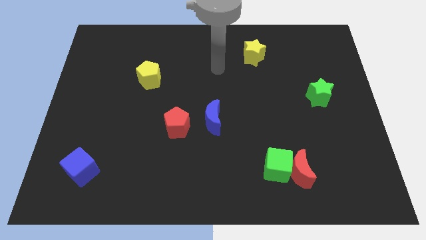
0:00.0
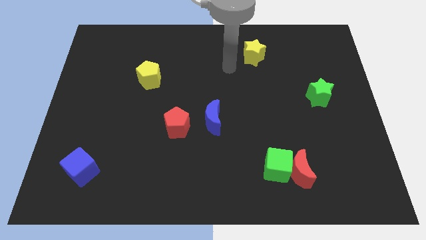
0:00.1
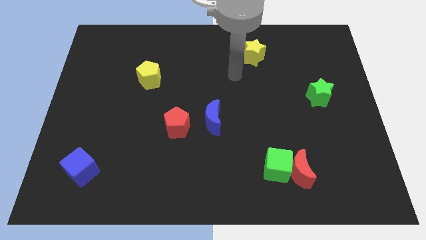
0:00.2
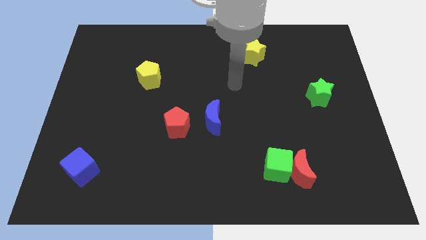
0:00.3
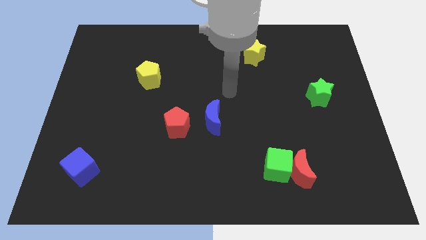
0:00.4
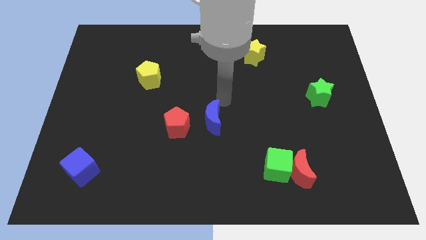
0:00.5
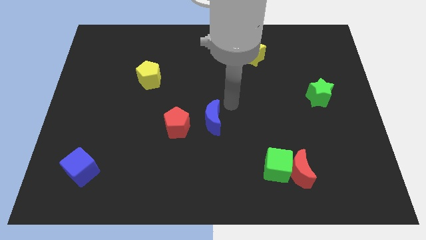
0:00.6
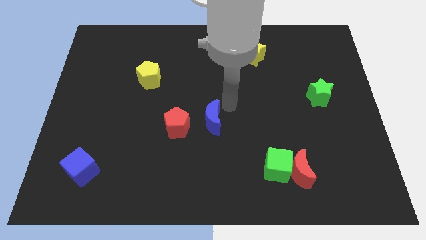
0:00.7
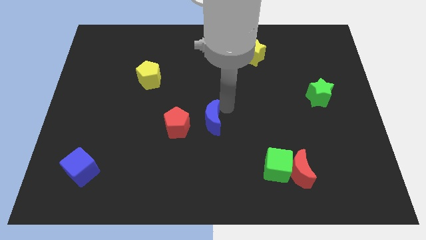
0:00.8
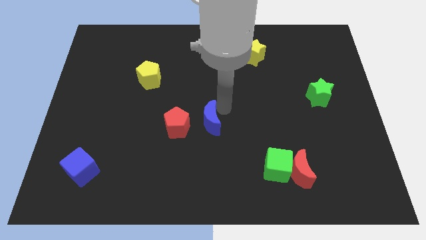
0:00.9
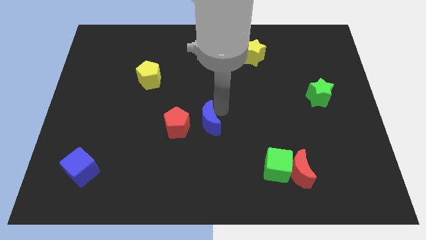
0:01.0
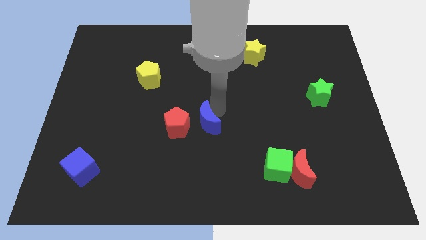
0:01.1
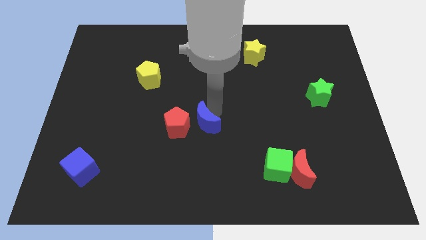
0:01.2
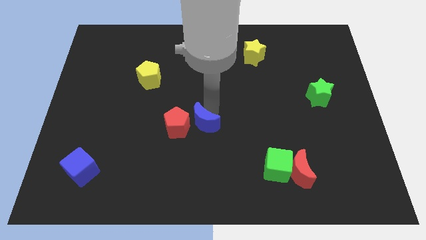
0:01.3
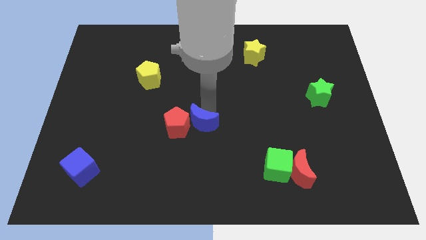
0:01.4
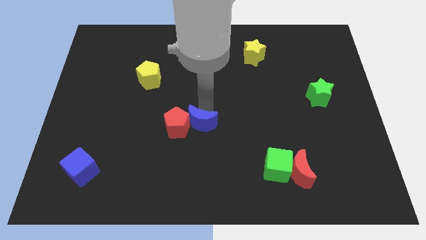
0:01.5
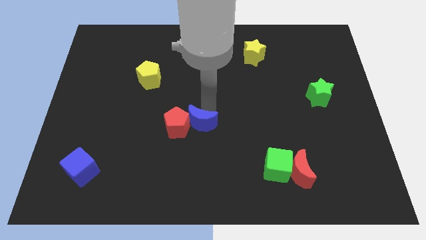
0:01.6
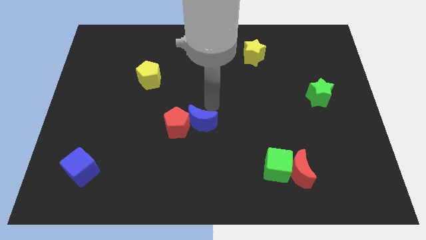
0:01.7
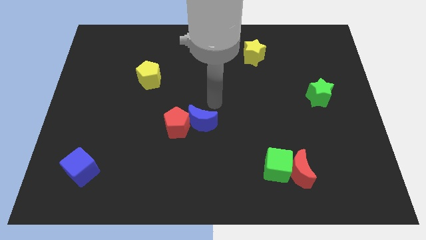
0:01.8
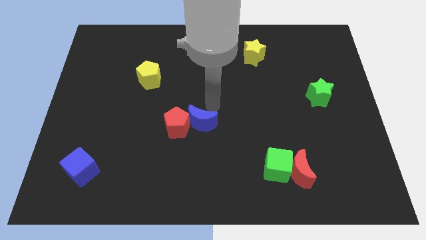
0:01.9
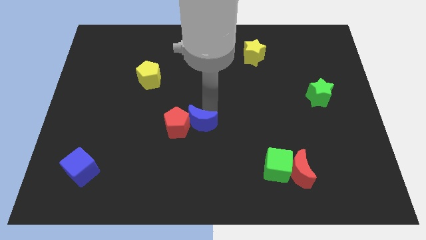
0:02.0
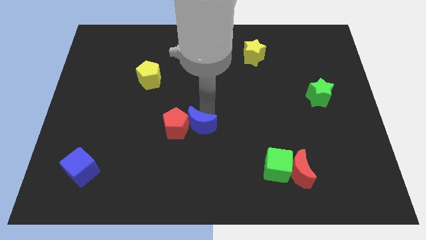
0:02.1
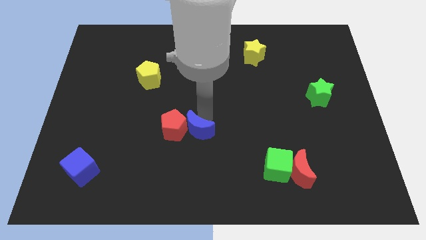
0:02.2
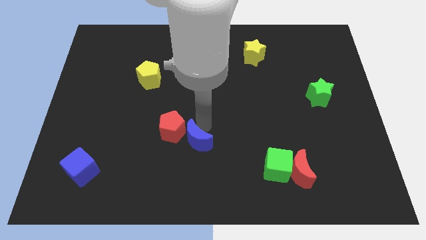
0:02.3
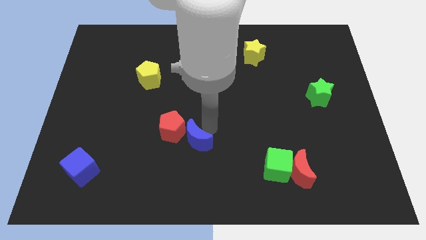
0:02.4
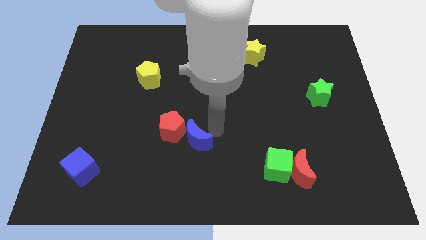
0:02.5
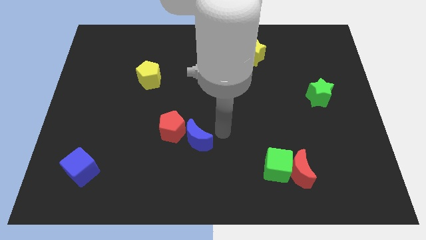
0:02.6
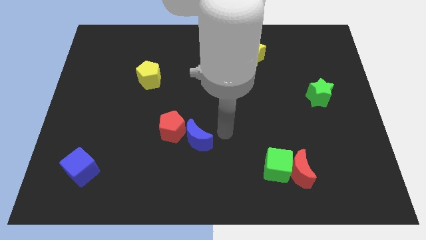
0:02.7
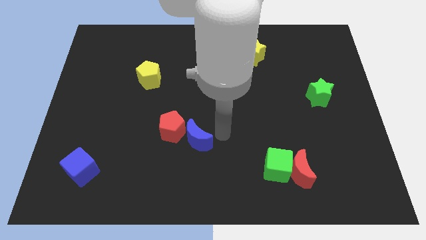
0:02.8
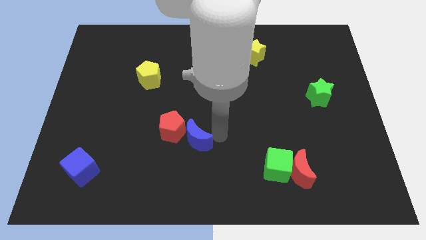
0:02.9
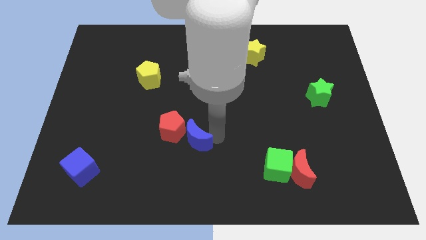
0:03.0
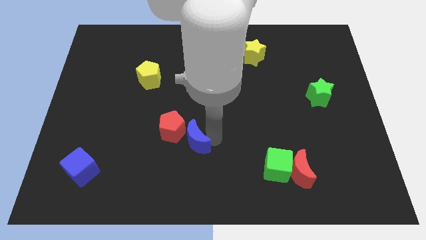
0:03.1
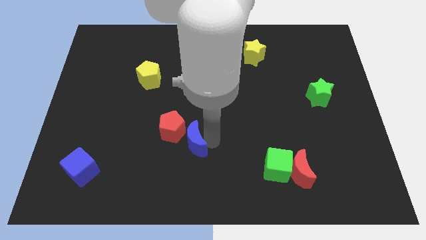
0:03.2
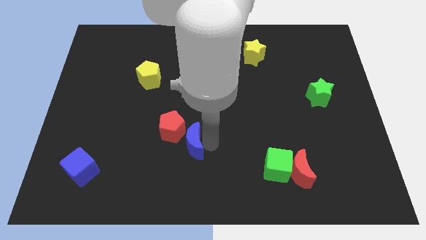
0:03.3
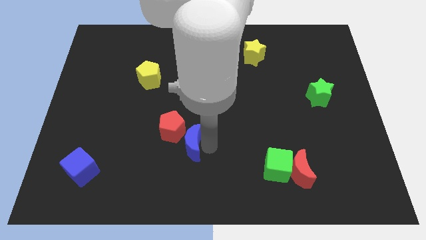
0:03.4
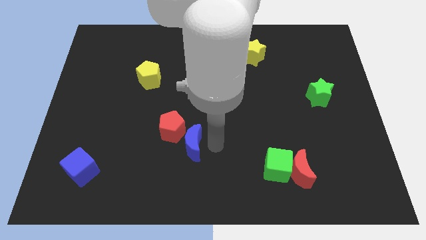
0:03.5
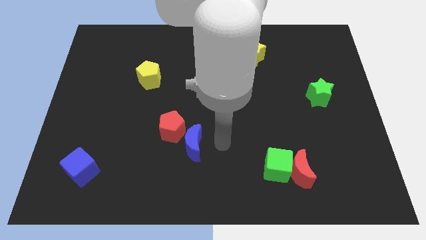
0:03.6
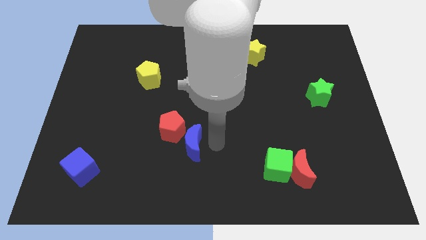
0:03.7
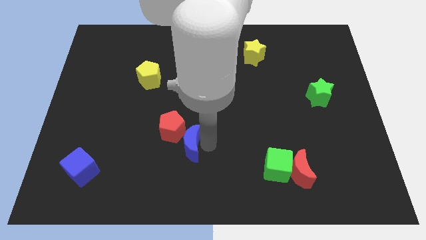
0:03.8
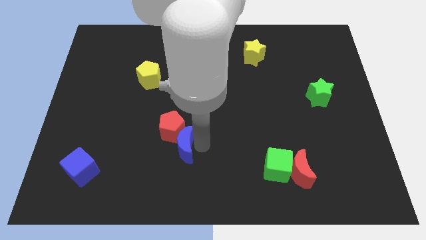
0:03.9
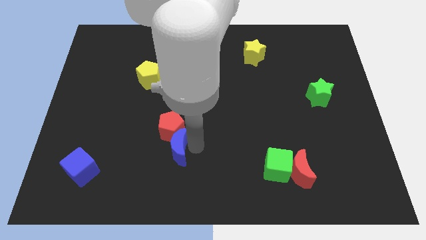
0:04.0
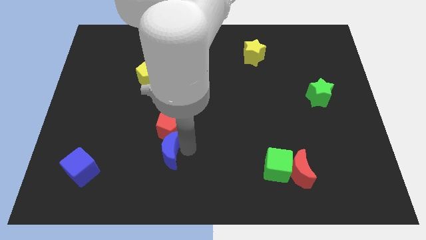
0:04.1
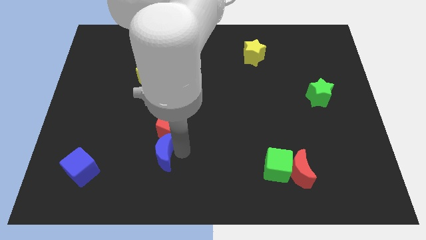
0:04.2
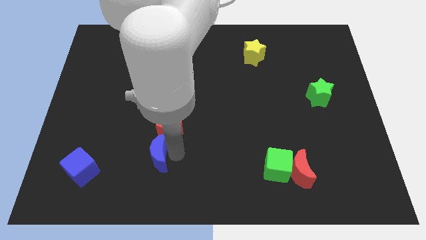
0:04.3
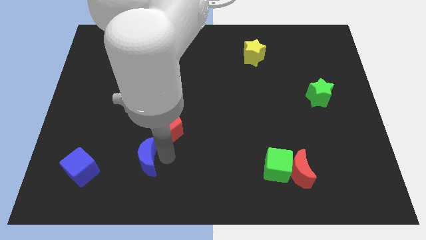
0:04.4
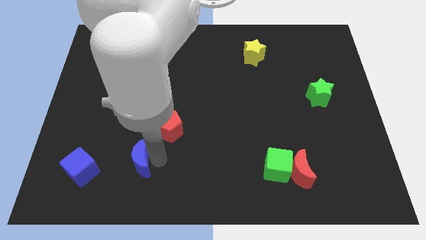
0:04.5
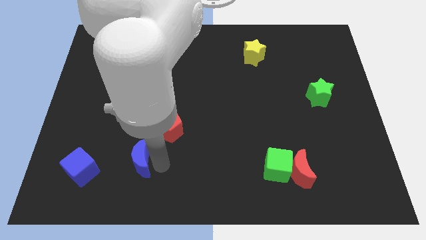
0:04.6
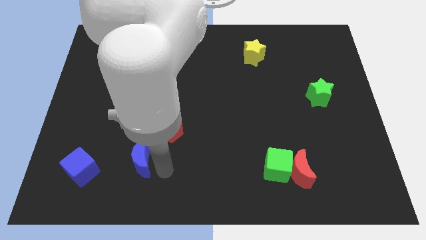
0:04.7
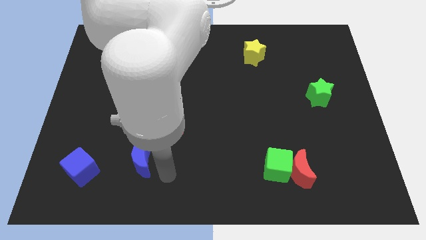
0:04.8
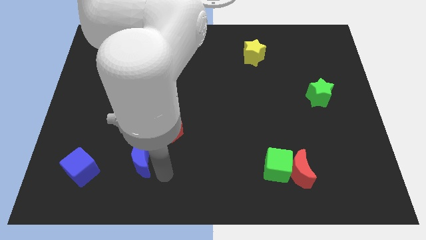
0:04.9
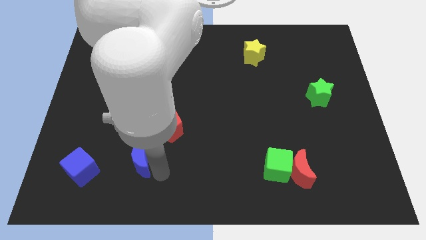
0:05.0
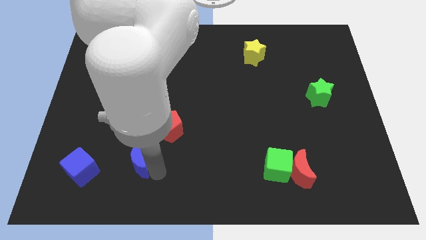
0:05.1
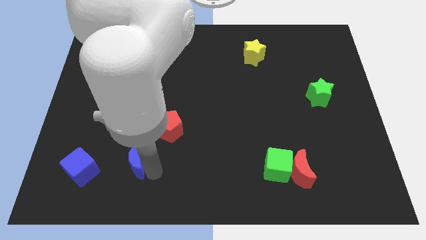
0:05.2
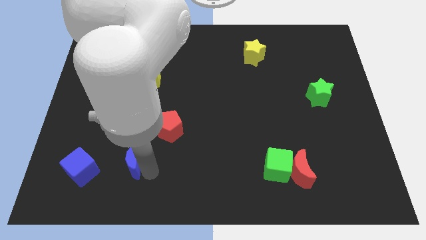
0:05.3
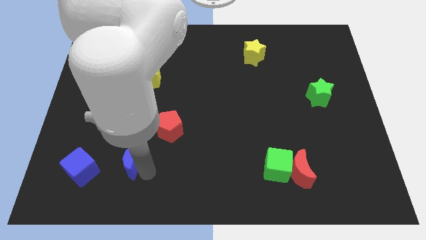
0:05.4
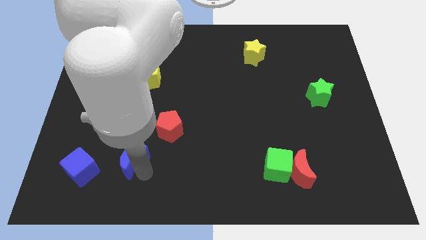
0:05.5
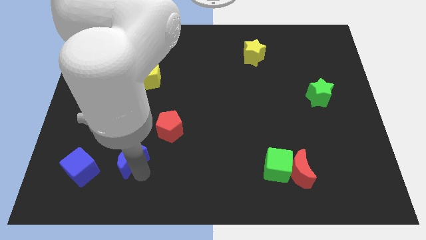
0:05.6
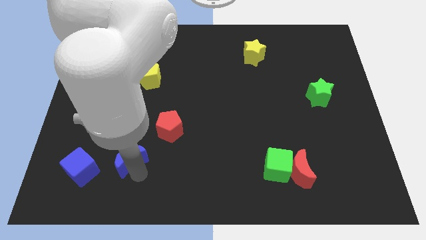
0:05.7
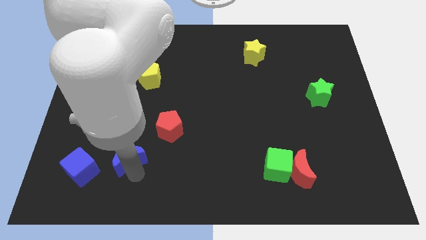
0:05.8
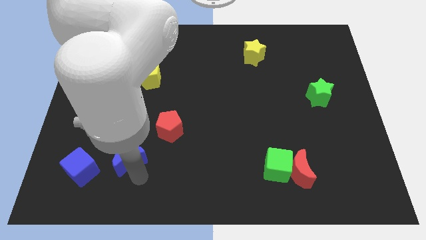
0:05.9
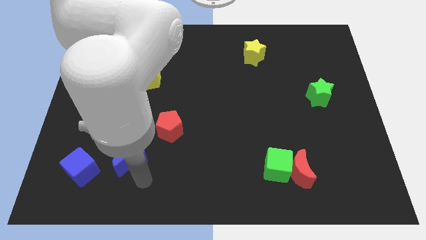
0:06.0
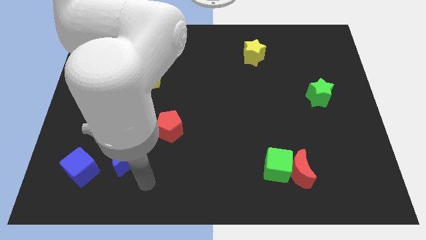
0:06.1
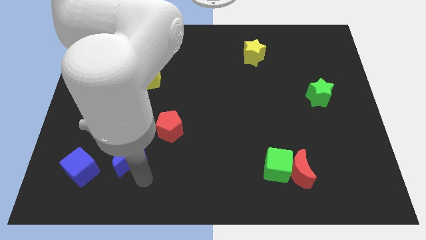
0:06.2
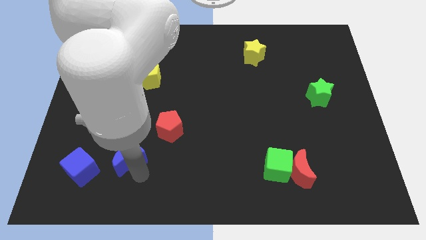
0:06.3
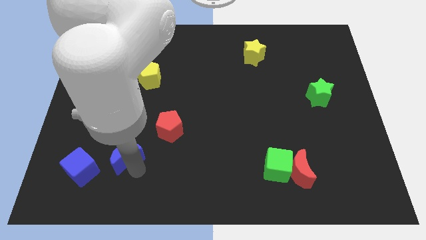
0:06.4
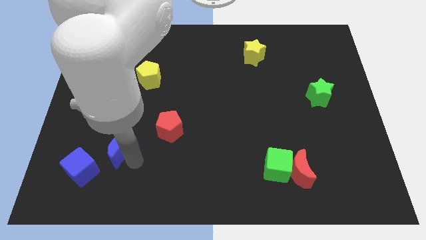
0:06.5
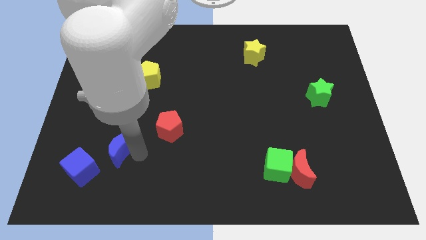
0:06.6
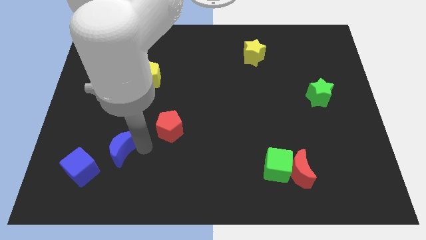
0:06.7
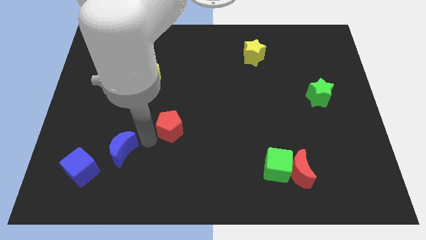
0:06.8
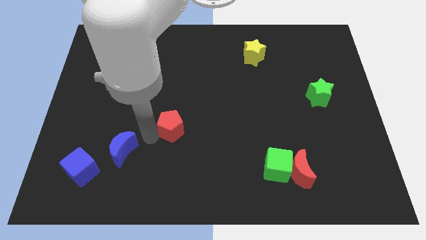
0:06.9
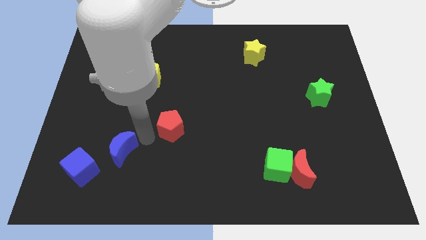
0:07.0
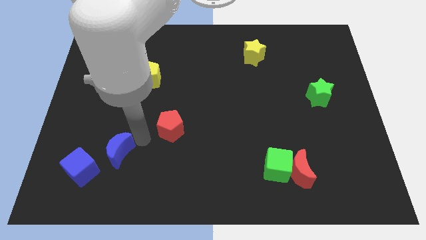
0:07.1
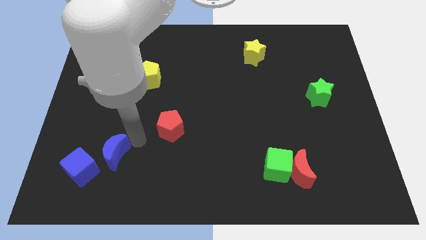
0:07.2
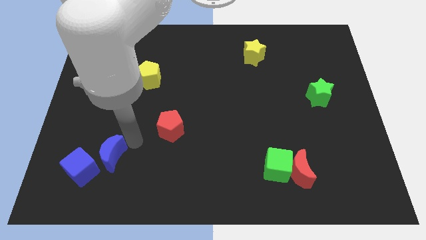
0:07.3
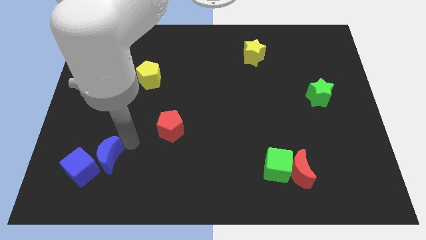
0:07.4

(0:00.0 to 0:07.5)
move the blue moon to the blue cube
